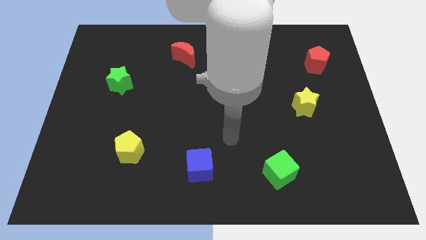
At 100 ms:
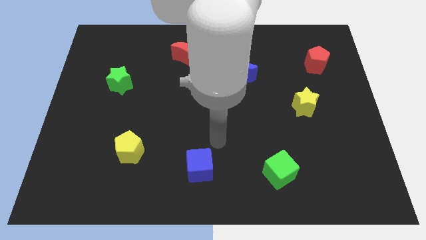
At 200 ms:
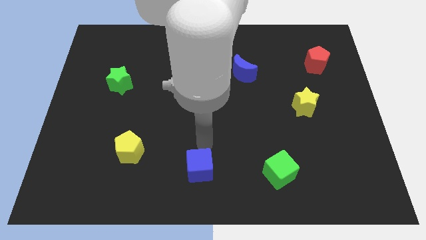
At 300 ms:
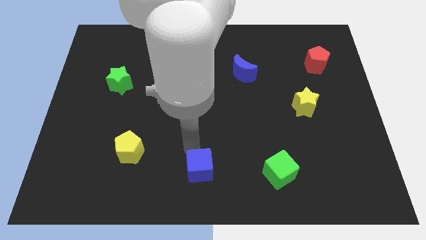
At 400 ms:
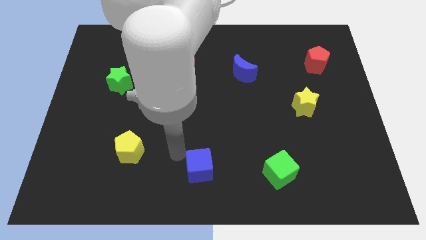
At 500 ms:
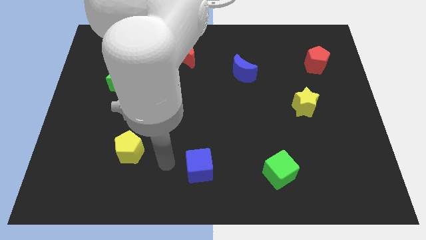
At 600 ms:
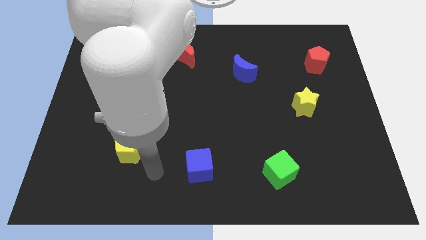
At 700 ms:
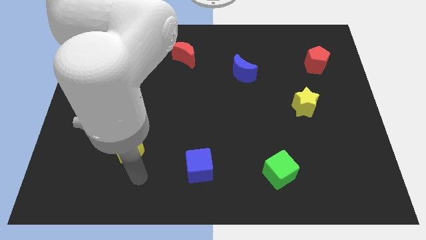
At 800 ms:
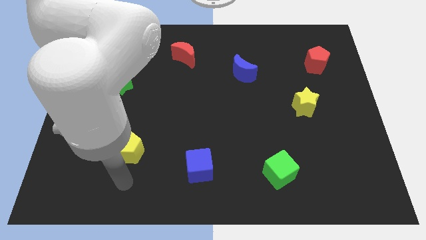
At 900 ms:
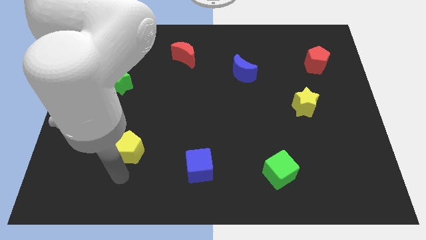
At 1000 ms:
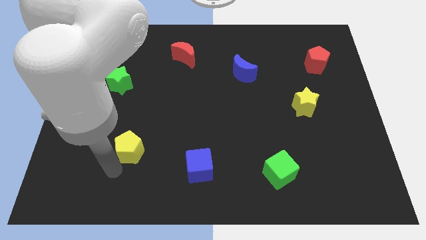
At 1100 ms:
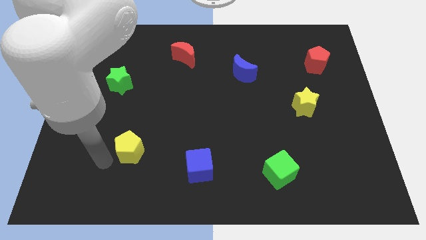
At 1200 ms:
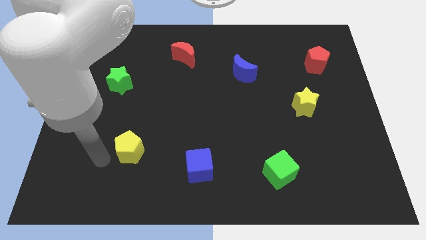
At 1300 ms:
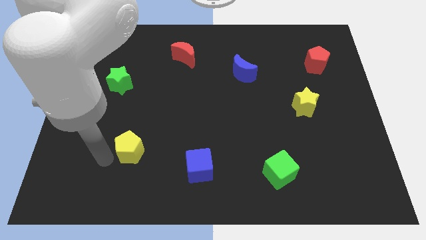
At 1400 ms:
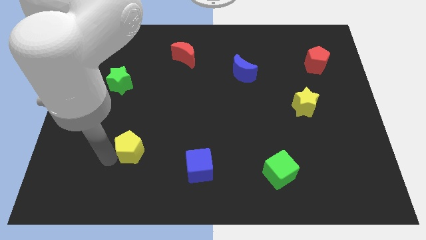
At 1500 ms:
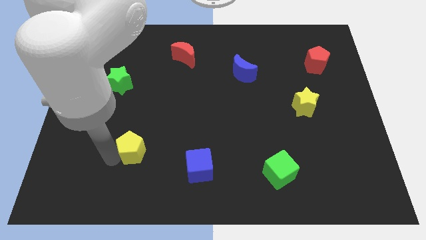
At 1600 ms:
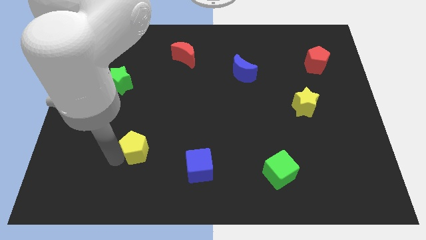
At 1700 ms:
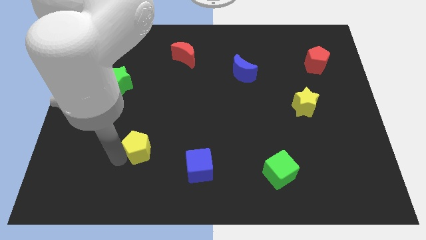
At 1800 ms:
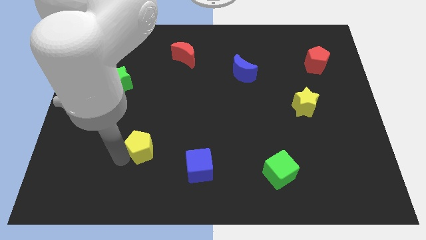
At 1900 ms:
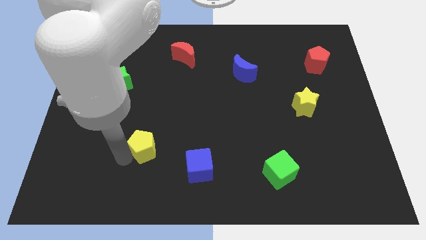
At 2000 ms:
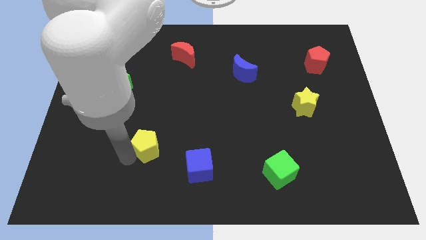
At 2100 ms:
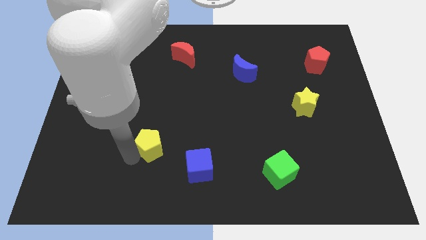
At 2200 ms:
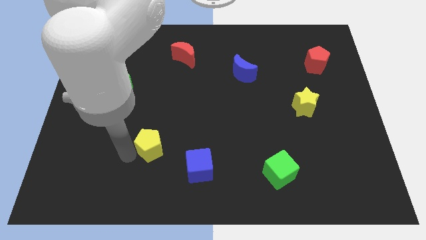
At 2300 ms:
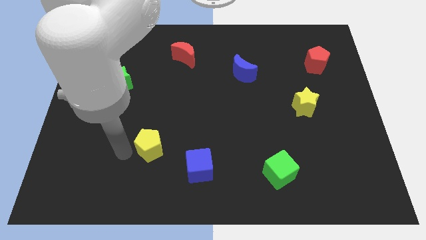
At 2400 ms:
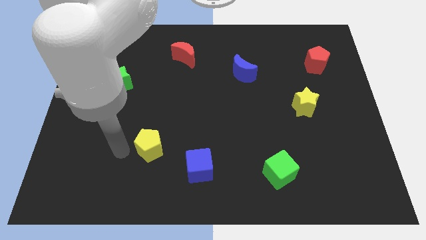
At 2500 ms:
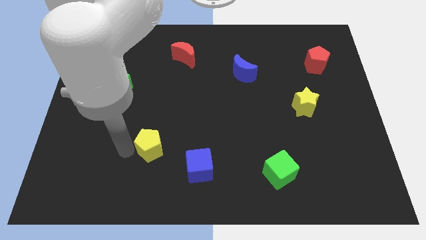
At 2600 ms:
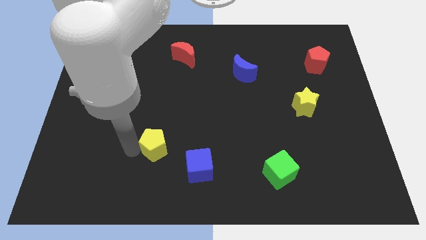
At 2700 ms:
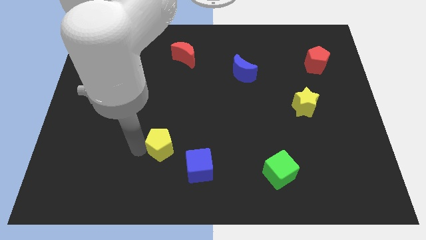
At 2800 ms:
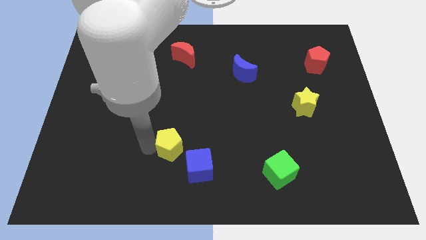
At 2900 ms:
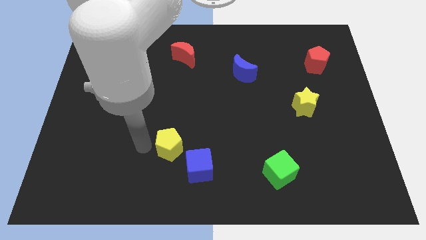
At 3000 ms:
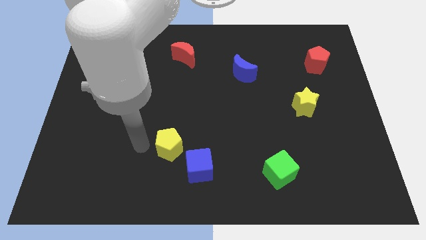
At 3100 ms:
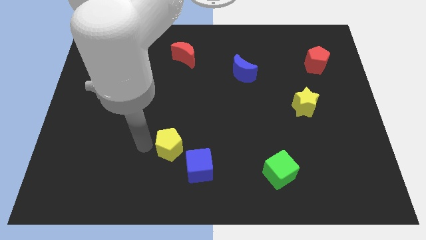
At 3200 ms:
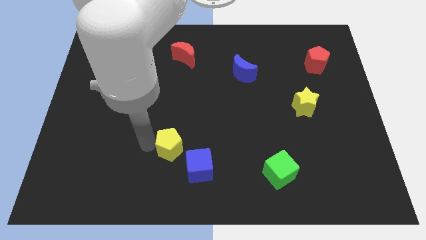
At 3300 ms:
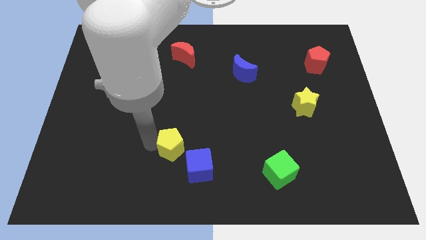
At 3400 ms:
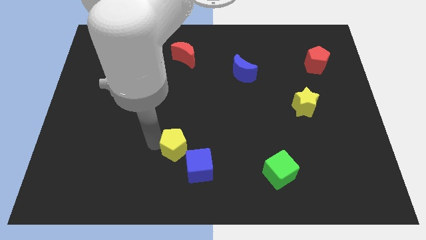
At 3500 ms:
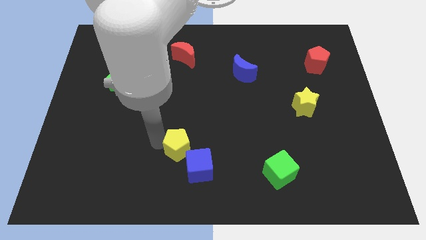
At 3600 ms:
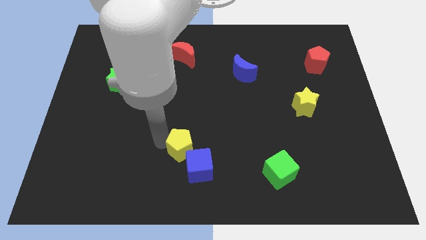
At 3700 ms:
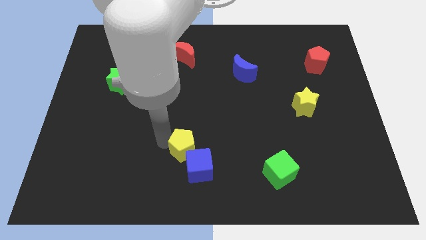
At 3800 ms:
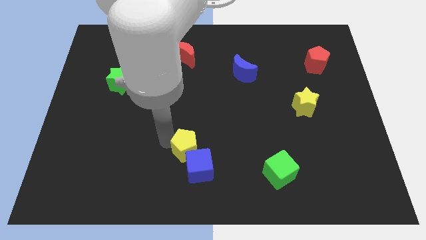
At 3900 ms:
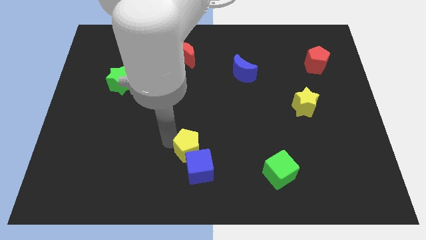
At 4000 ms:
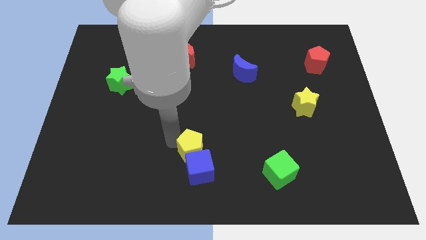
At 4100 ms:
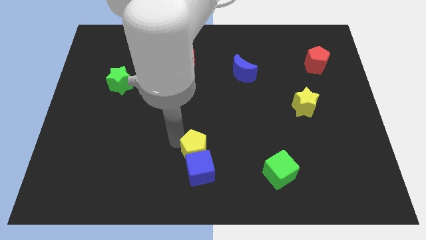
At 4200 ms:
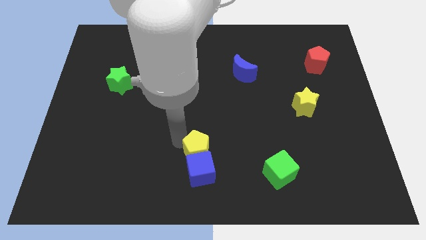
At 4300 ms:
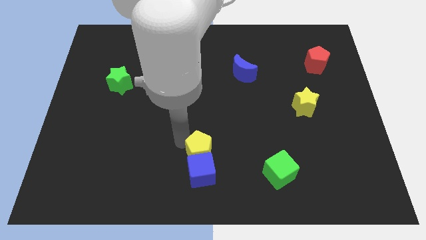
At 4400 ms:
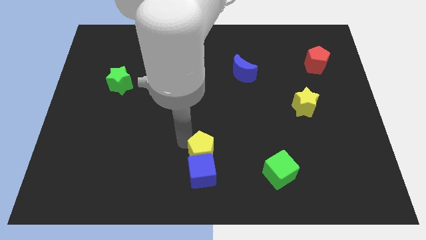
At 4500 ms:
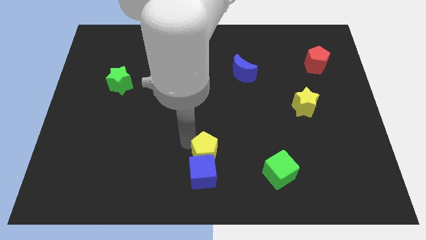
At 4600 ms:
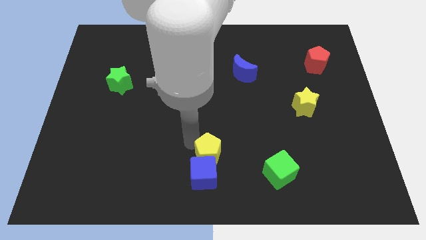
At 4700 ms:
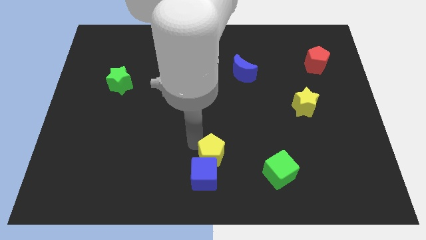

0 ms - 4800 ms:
slide the yellow pentagon to the left of the green cube

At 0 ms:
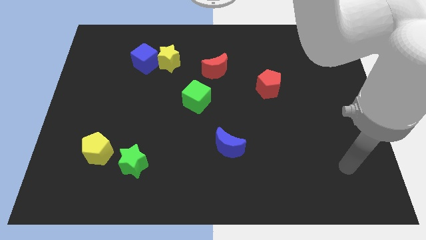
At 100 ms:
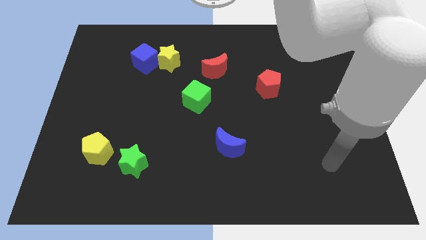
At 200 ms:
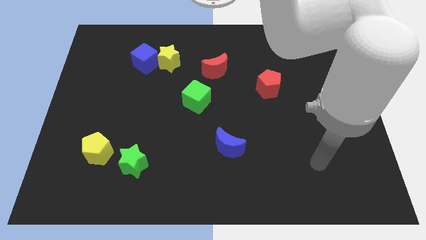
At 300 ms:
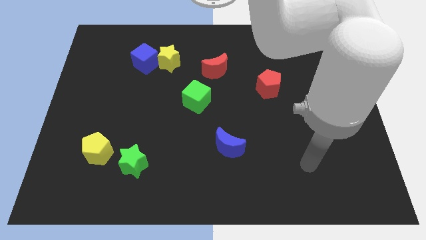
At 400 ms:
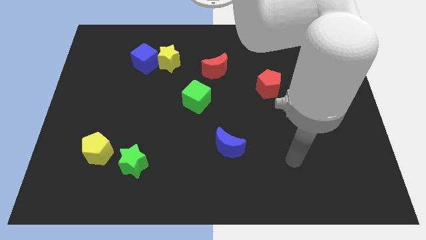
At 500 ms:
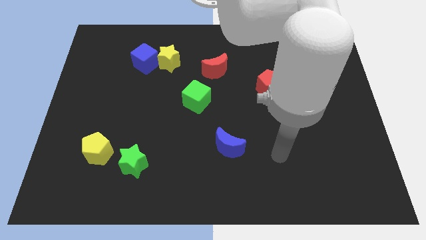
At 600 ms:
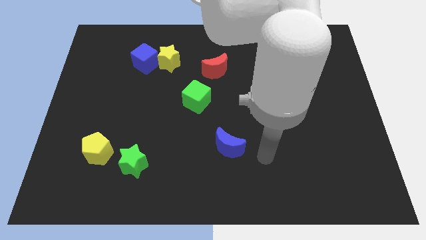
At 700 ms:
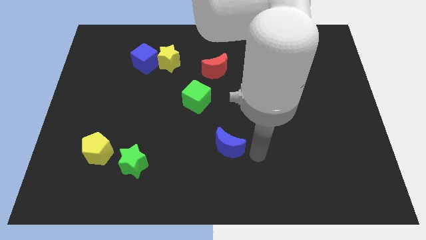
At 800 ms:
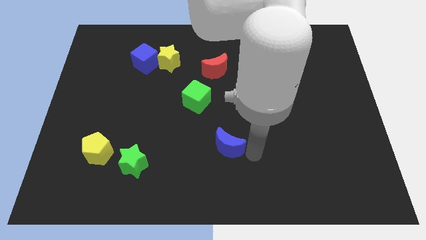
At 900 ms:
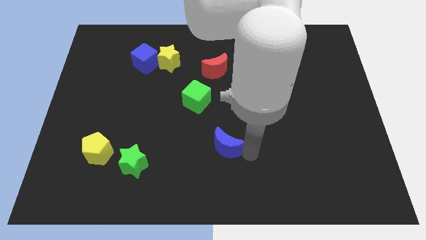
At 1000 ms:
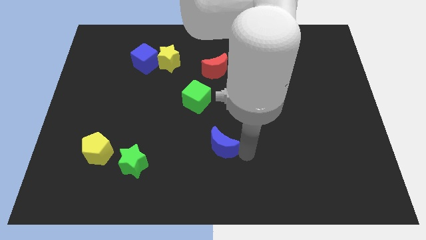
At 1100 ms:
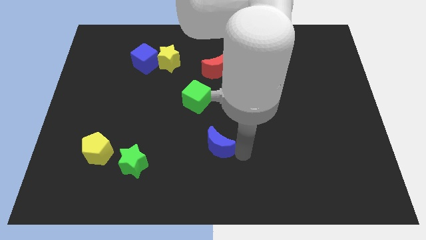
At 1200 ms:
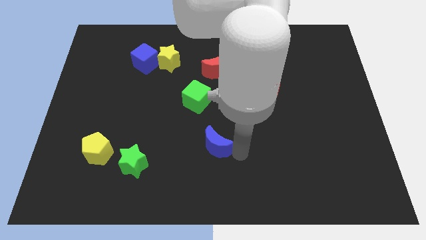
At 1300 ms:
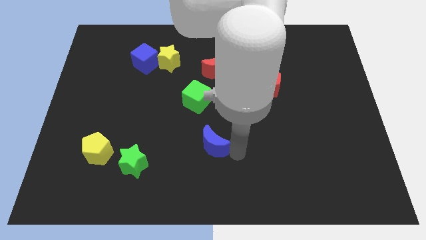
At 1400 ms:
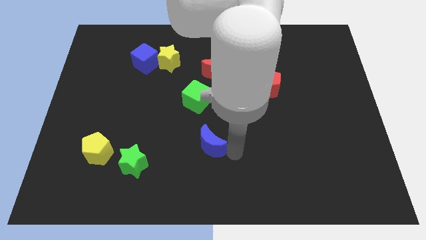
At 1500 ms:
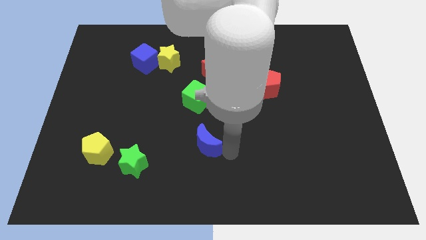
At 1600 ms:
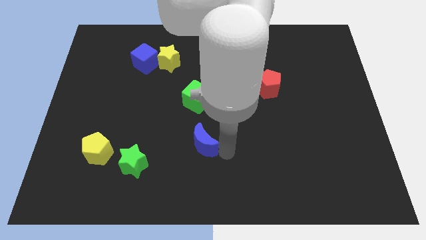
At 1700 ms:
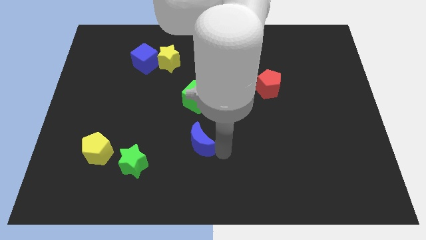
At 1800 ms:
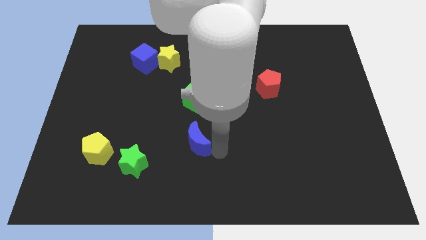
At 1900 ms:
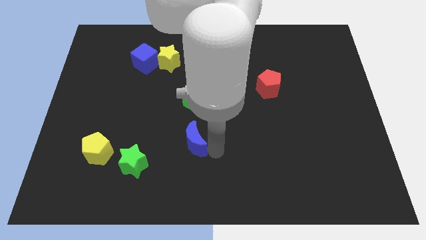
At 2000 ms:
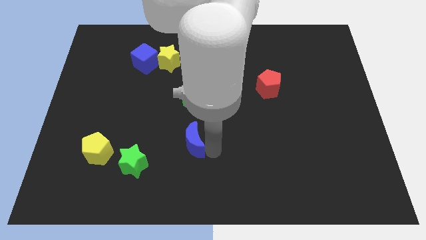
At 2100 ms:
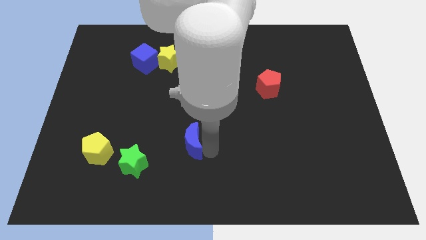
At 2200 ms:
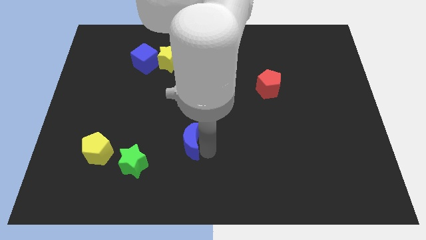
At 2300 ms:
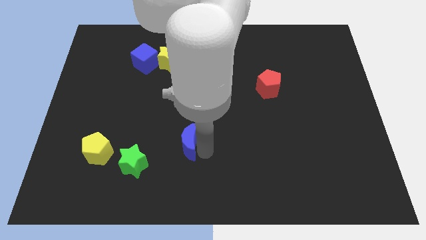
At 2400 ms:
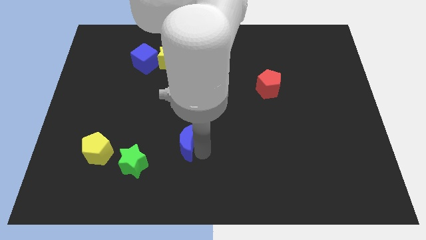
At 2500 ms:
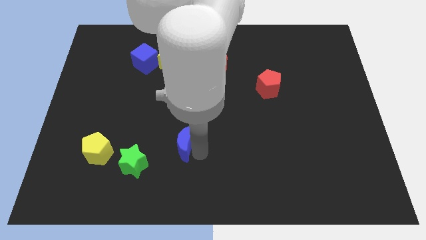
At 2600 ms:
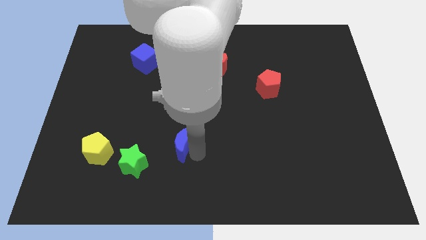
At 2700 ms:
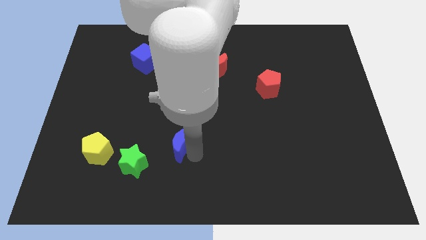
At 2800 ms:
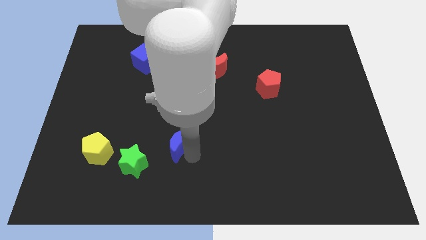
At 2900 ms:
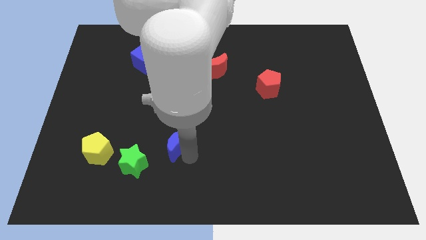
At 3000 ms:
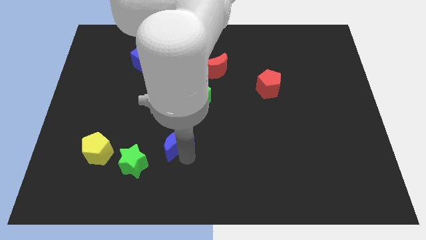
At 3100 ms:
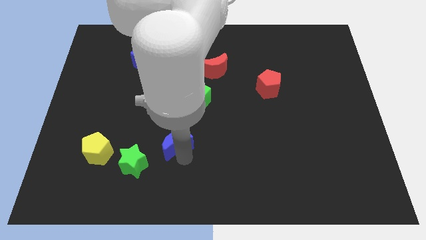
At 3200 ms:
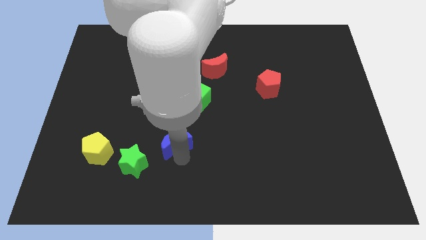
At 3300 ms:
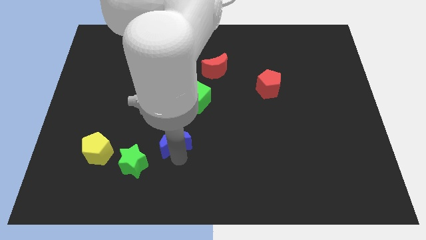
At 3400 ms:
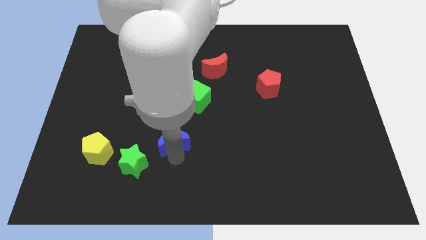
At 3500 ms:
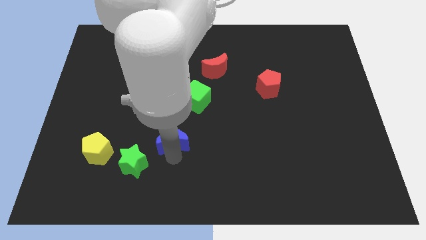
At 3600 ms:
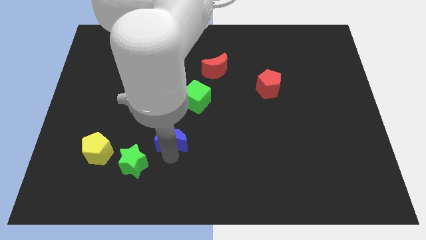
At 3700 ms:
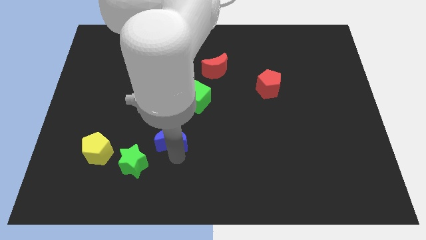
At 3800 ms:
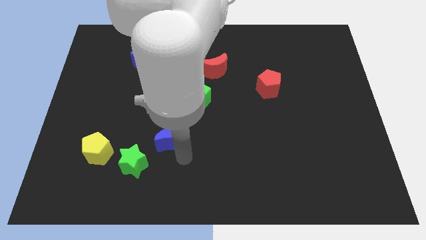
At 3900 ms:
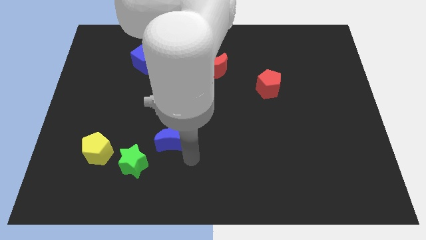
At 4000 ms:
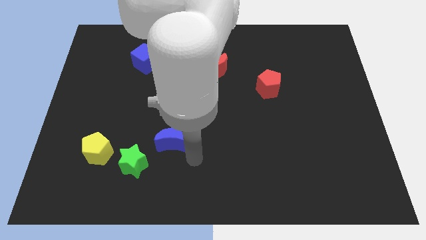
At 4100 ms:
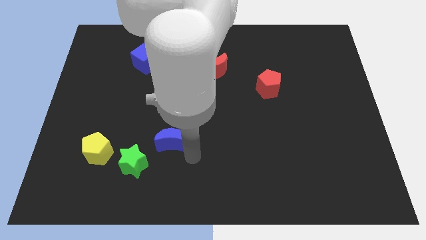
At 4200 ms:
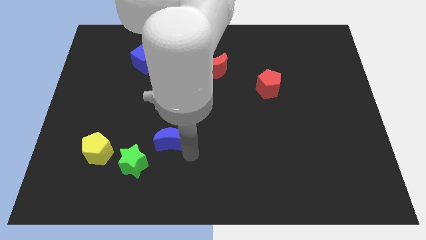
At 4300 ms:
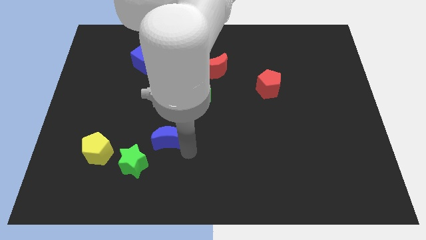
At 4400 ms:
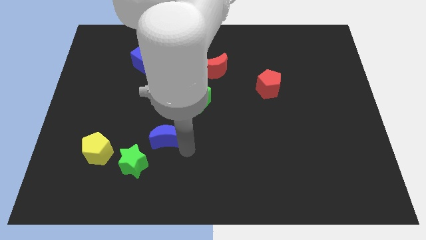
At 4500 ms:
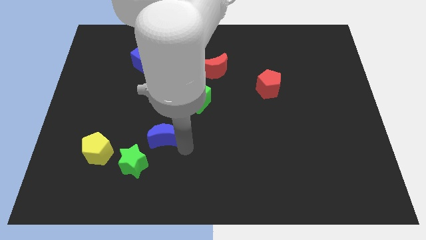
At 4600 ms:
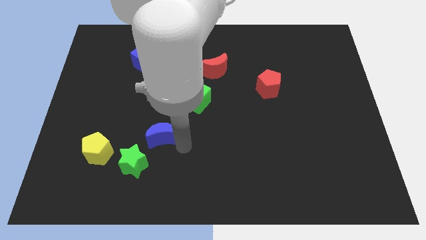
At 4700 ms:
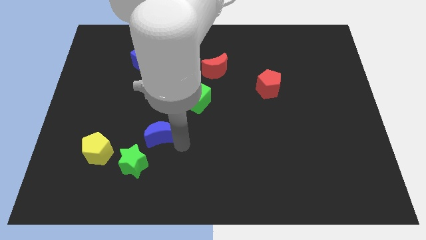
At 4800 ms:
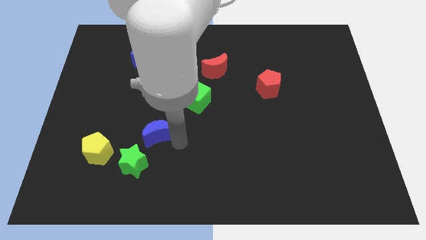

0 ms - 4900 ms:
push the blue moon above the green star
